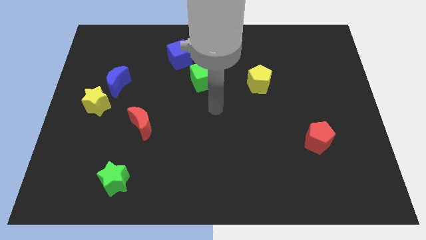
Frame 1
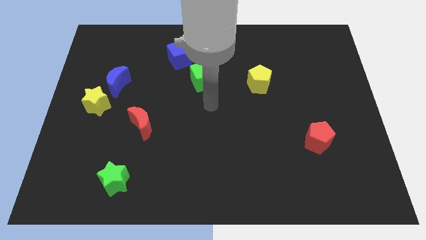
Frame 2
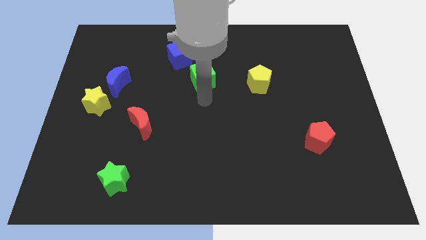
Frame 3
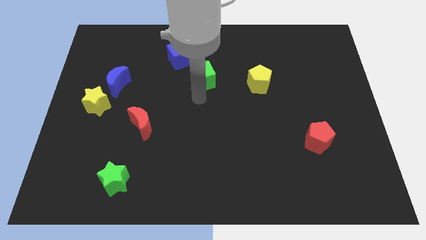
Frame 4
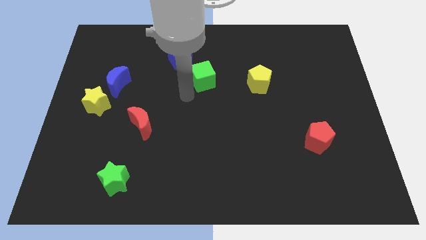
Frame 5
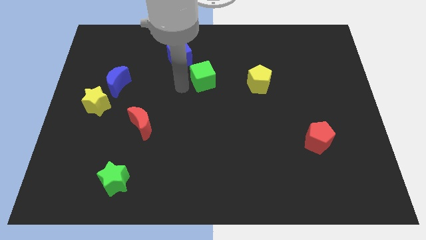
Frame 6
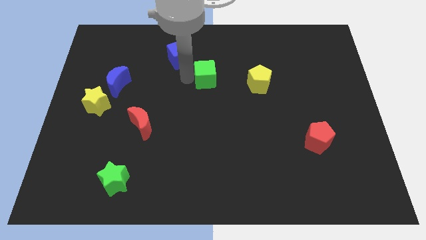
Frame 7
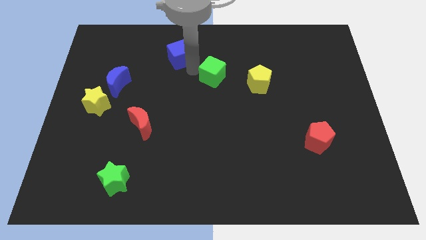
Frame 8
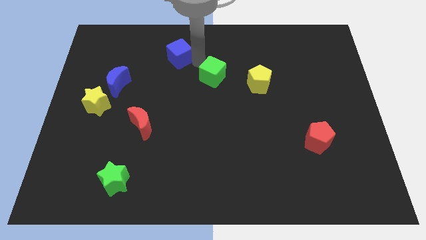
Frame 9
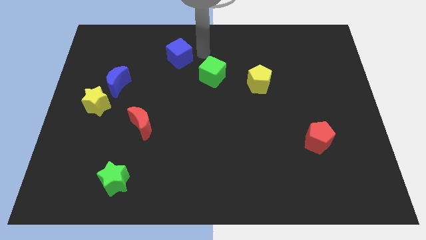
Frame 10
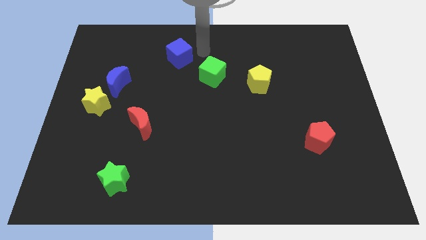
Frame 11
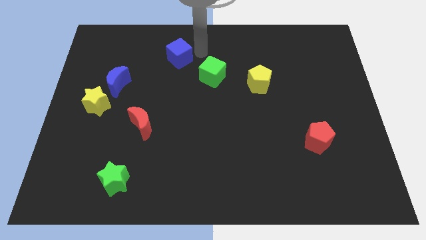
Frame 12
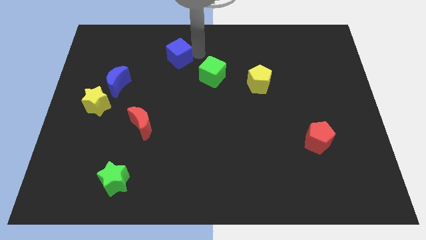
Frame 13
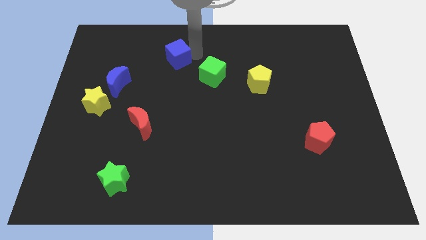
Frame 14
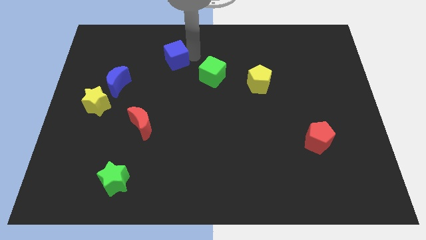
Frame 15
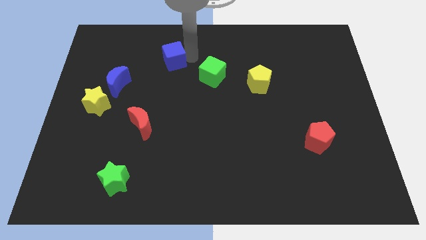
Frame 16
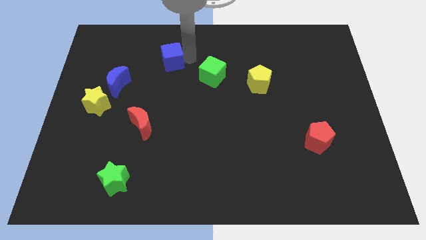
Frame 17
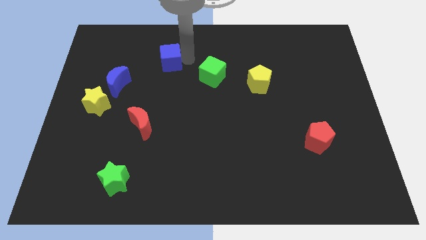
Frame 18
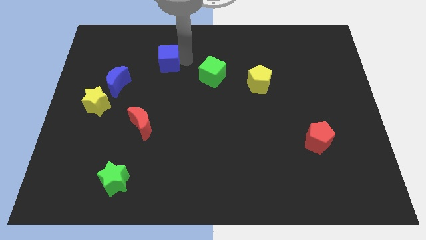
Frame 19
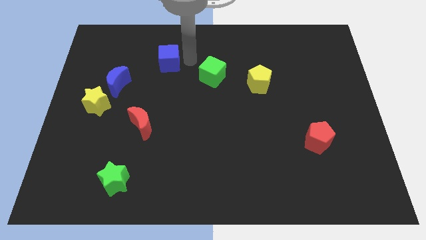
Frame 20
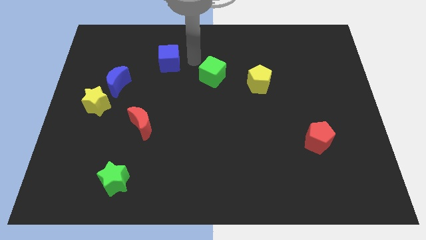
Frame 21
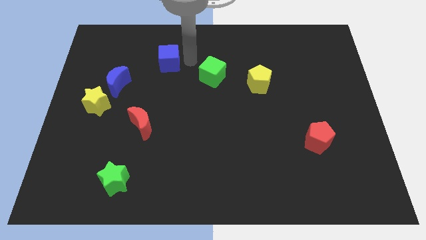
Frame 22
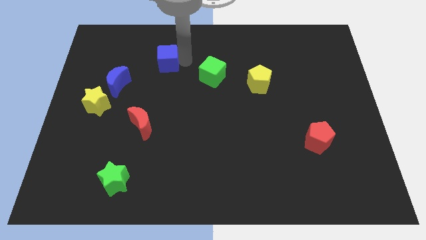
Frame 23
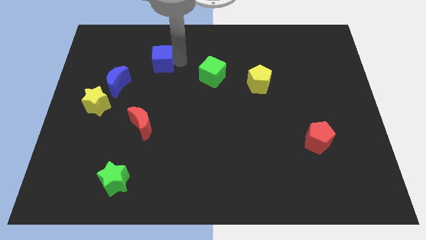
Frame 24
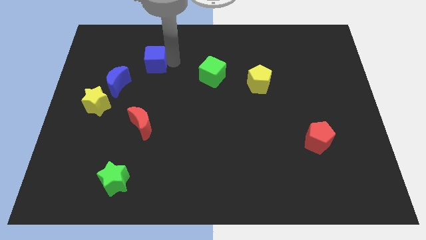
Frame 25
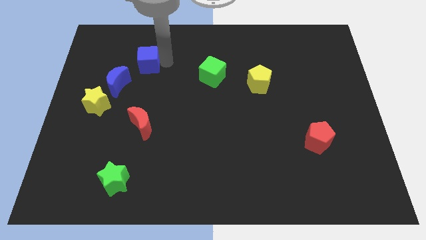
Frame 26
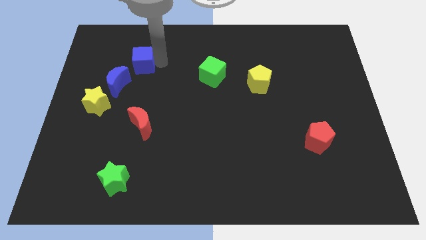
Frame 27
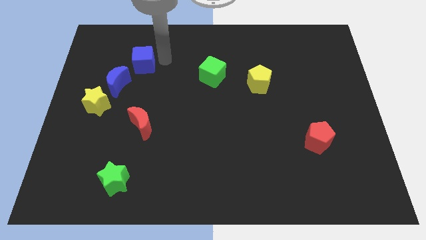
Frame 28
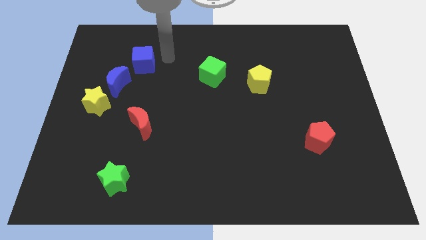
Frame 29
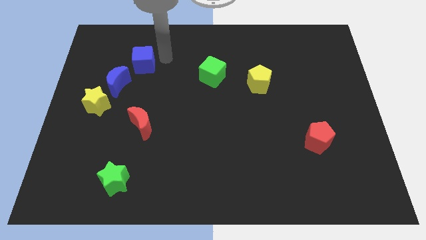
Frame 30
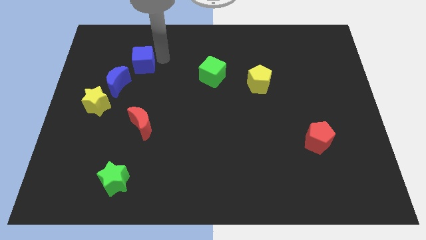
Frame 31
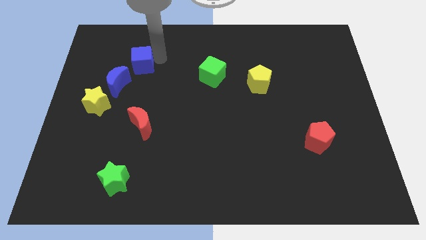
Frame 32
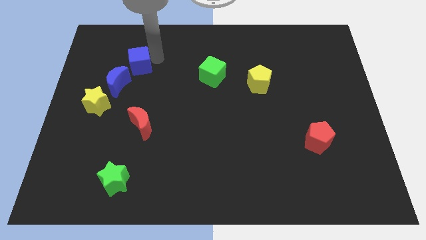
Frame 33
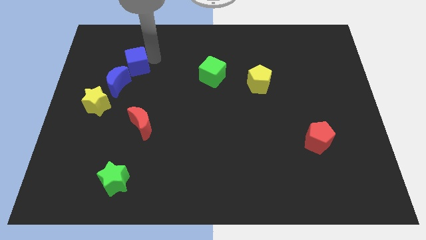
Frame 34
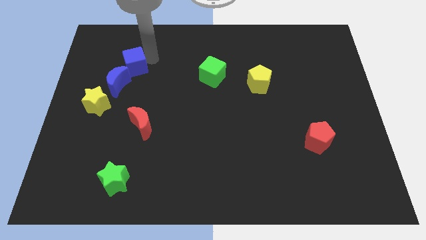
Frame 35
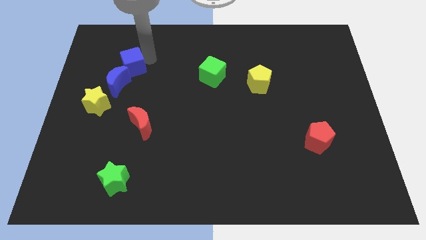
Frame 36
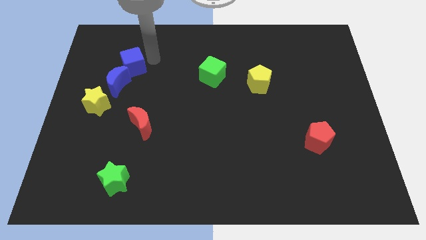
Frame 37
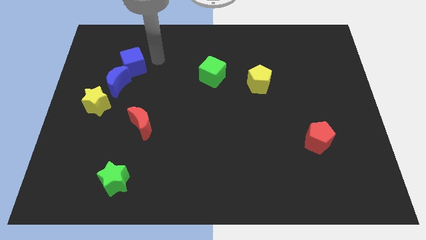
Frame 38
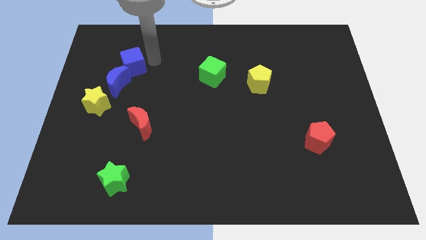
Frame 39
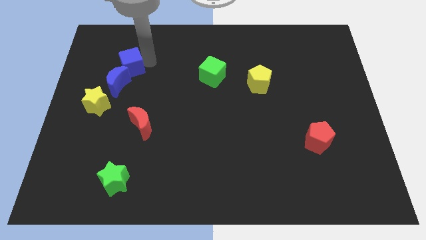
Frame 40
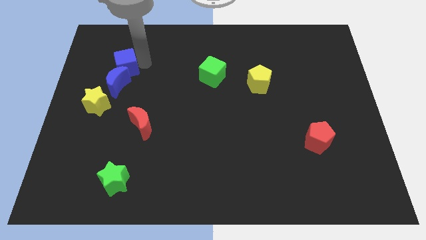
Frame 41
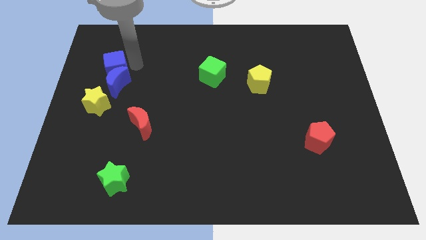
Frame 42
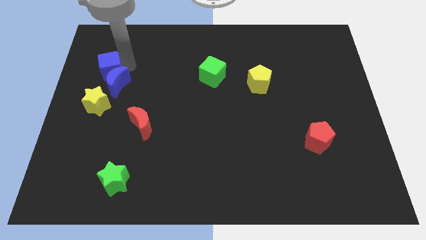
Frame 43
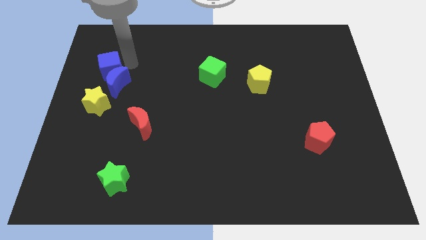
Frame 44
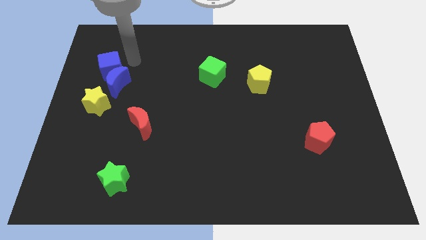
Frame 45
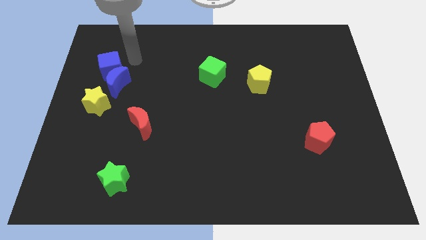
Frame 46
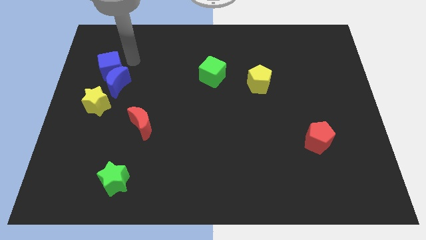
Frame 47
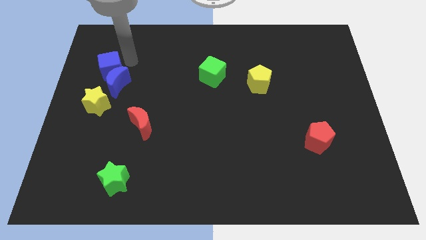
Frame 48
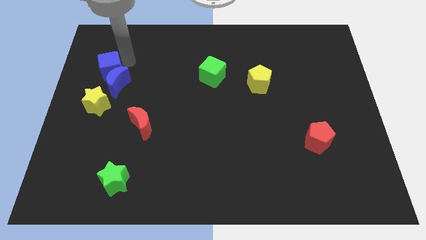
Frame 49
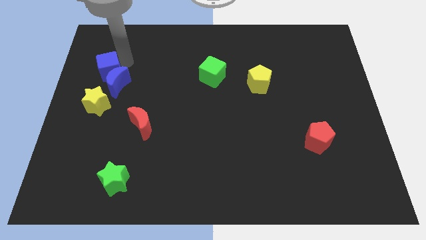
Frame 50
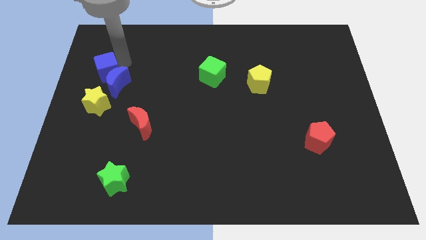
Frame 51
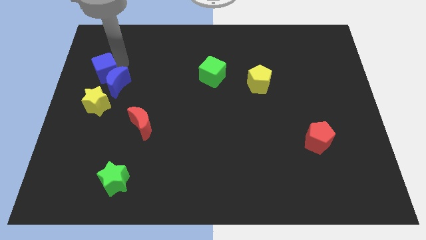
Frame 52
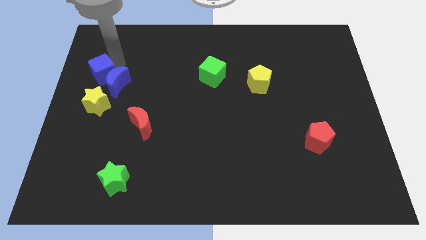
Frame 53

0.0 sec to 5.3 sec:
put the blue cube to the left side of the board

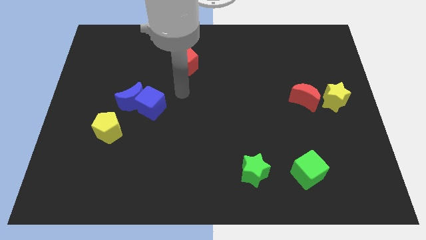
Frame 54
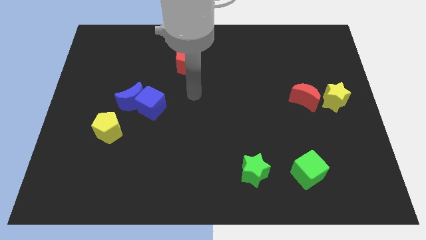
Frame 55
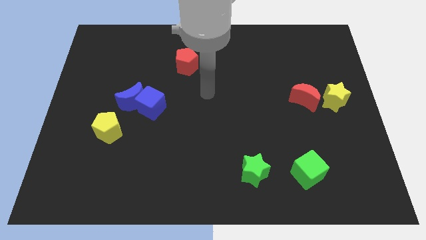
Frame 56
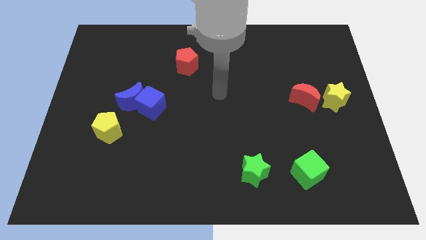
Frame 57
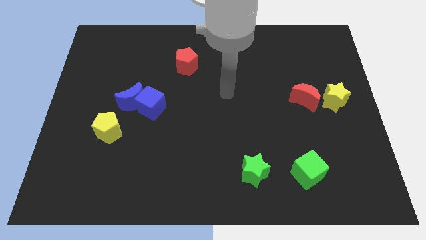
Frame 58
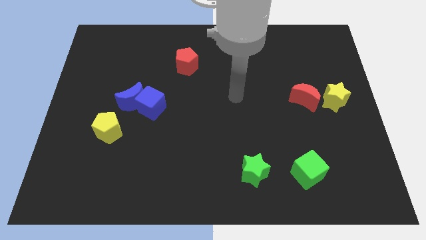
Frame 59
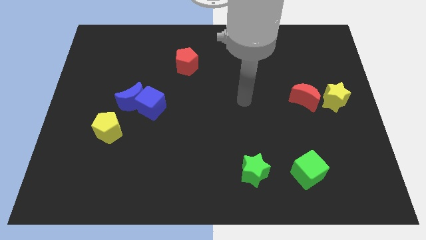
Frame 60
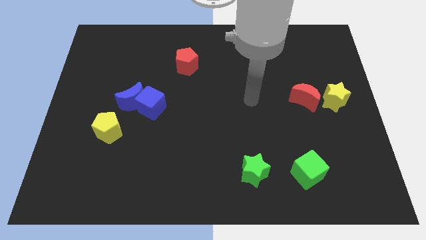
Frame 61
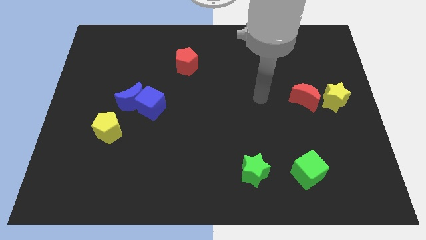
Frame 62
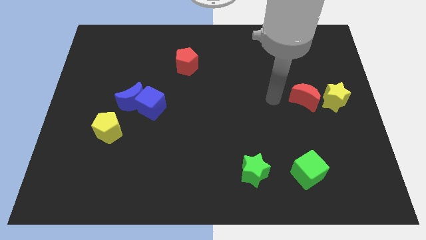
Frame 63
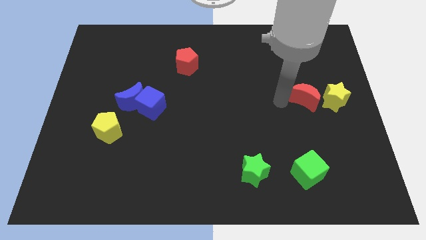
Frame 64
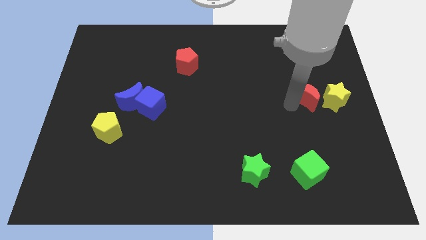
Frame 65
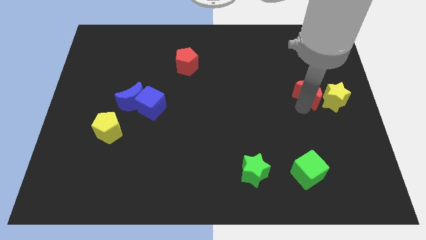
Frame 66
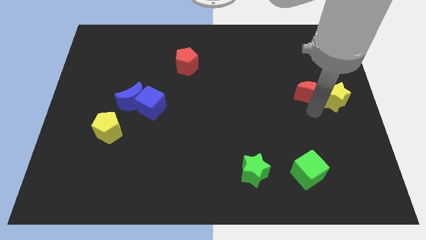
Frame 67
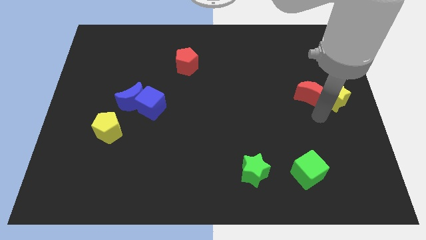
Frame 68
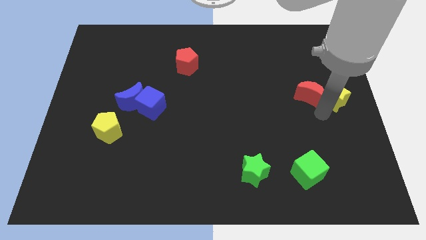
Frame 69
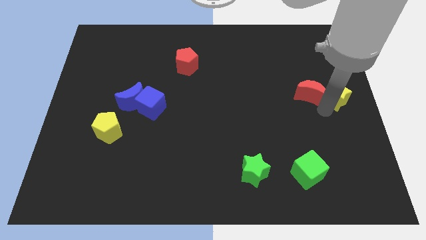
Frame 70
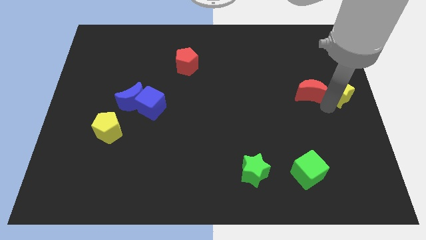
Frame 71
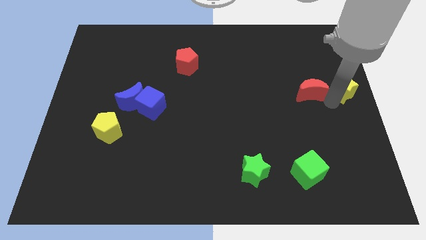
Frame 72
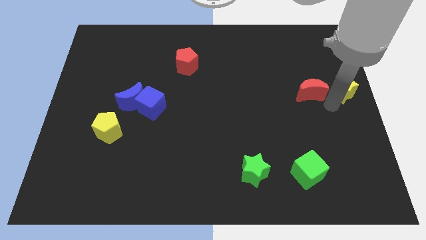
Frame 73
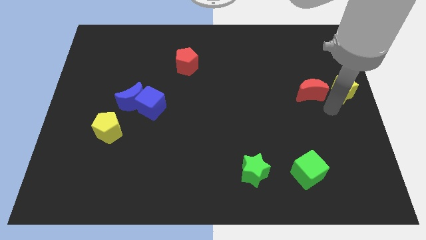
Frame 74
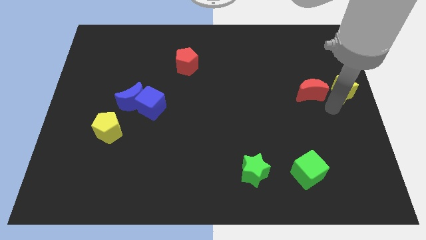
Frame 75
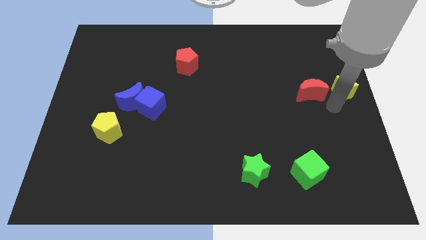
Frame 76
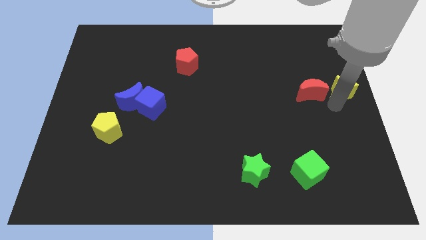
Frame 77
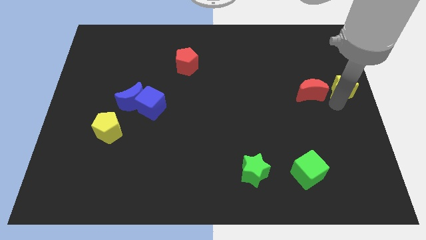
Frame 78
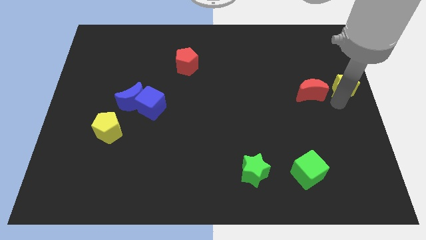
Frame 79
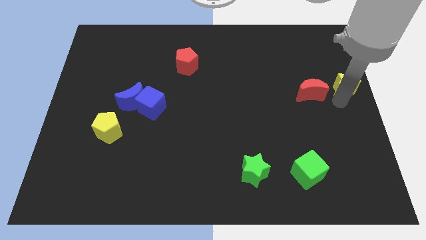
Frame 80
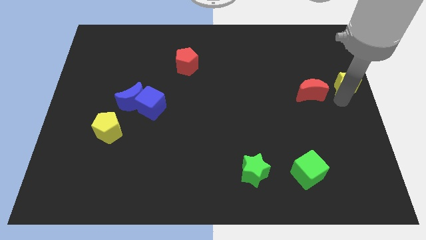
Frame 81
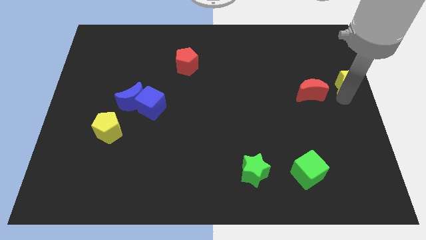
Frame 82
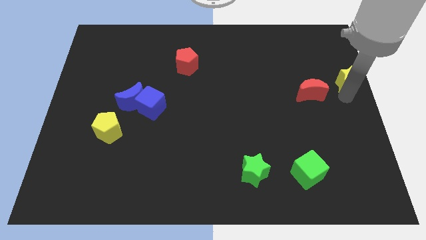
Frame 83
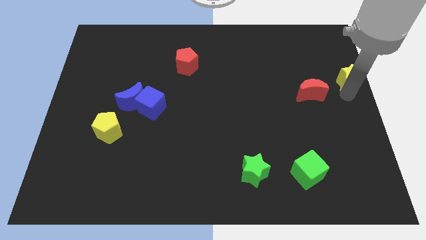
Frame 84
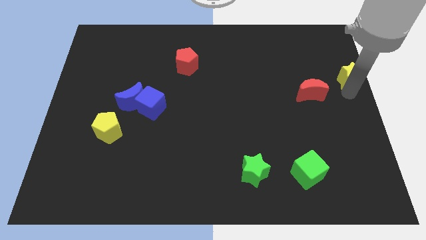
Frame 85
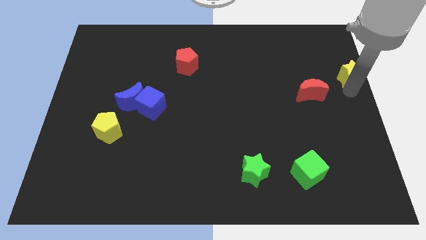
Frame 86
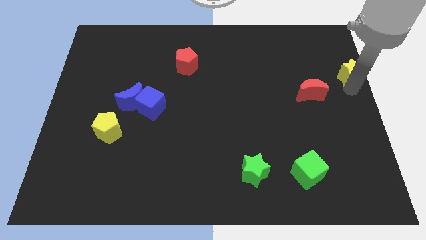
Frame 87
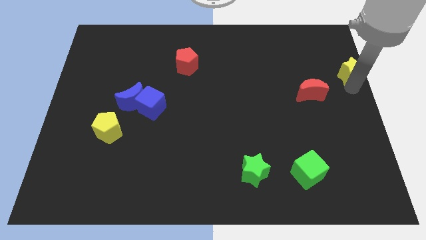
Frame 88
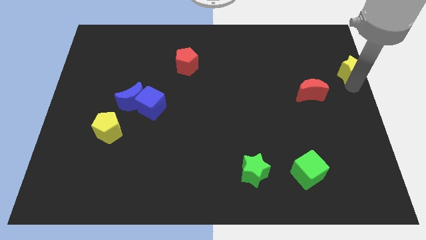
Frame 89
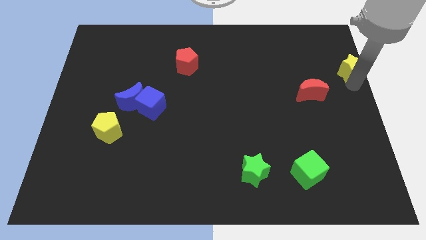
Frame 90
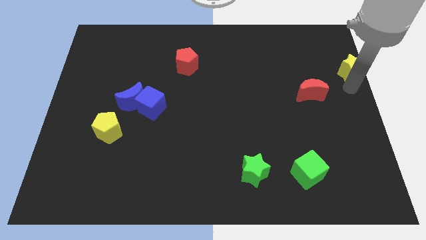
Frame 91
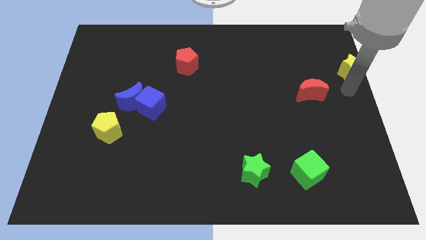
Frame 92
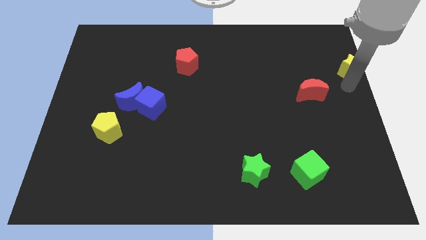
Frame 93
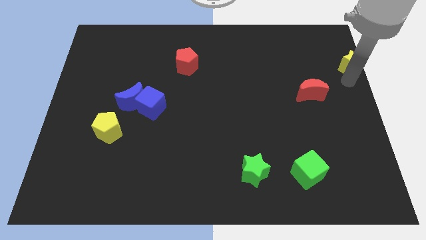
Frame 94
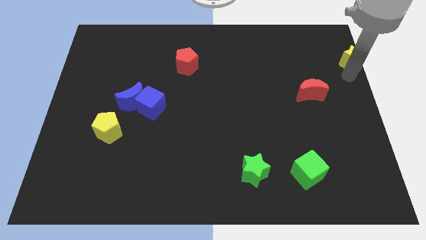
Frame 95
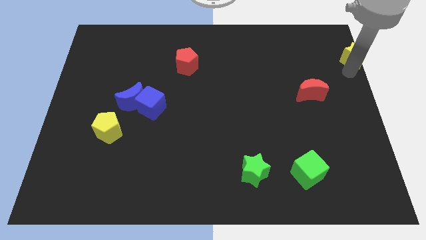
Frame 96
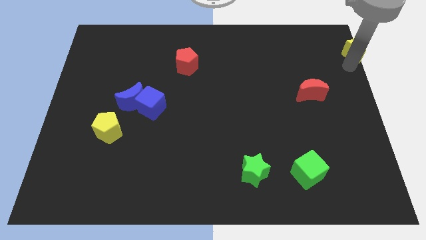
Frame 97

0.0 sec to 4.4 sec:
push the yellow star to the top right
